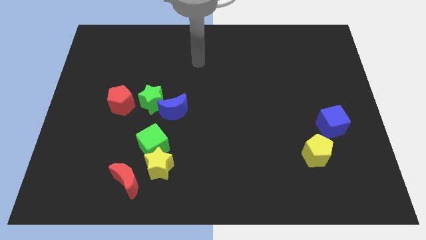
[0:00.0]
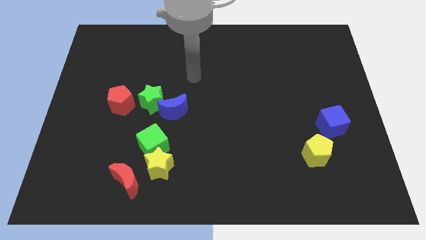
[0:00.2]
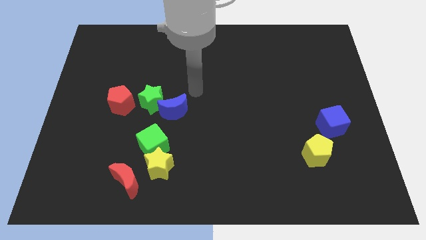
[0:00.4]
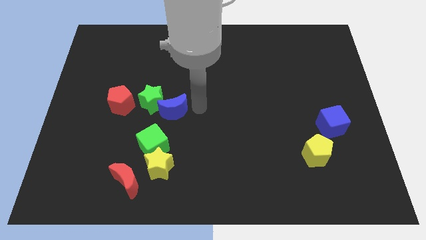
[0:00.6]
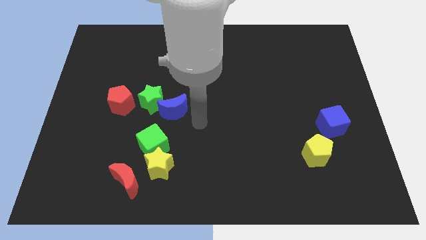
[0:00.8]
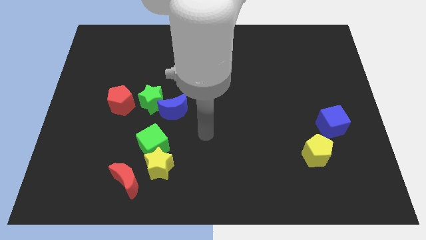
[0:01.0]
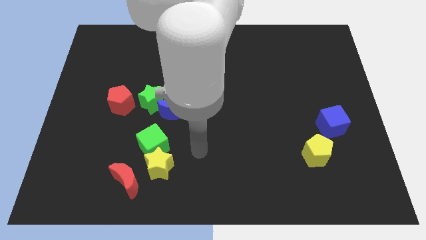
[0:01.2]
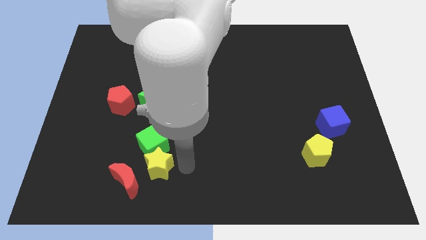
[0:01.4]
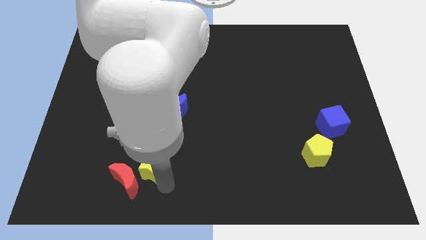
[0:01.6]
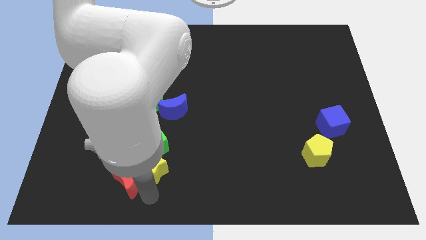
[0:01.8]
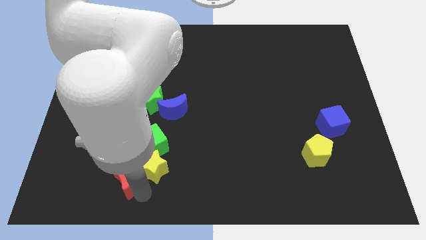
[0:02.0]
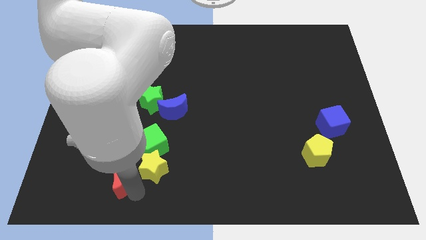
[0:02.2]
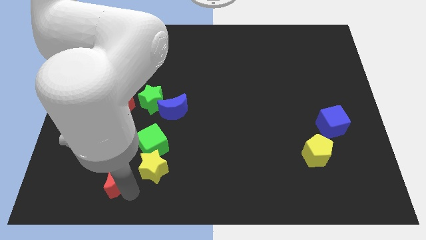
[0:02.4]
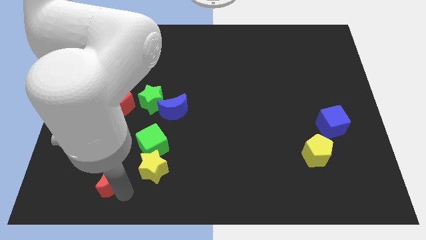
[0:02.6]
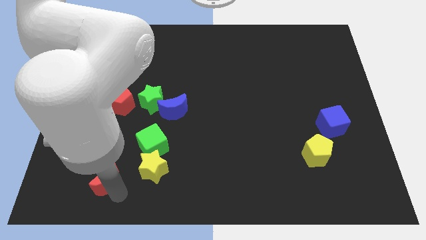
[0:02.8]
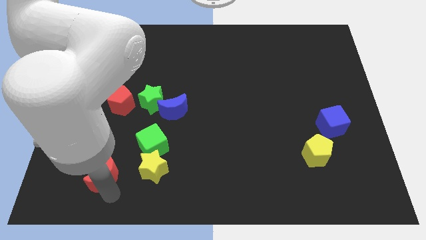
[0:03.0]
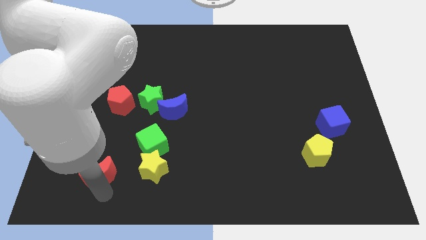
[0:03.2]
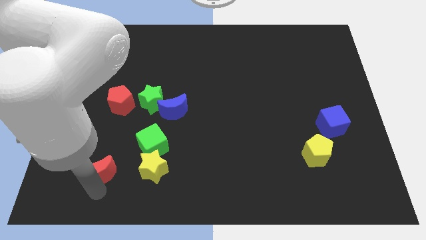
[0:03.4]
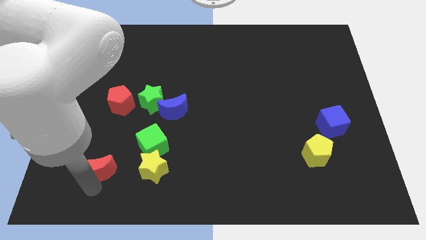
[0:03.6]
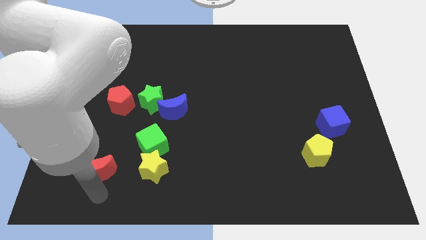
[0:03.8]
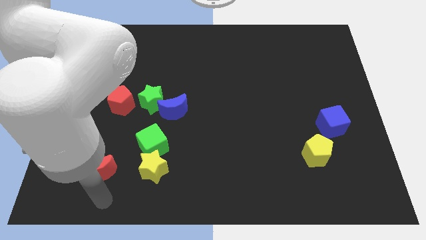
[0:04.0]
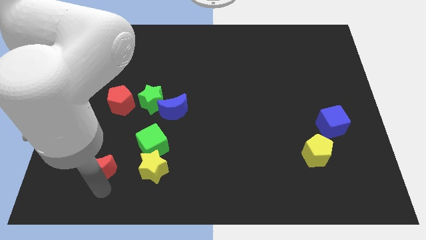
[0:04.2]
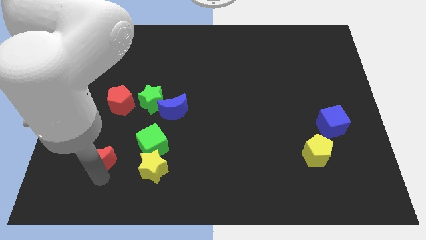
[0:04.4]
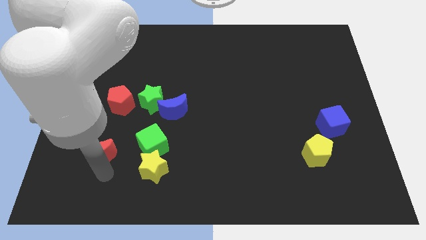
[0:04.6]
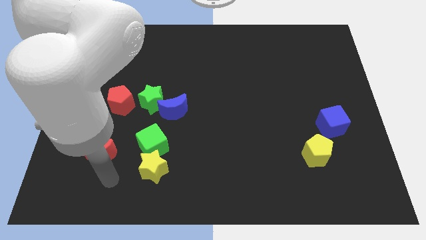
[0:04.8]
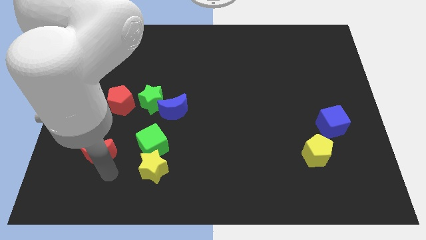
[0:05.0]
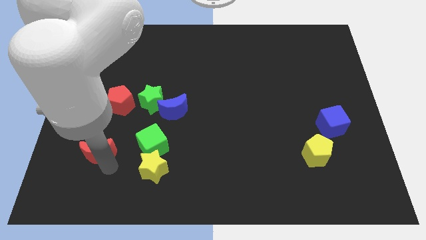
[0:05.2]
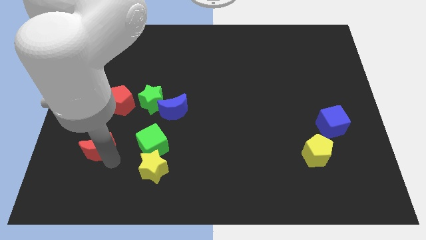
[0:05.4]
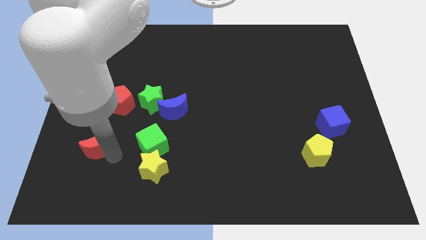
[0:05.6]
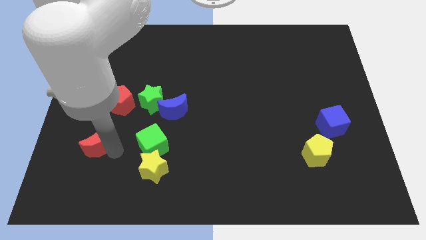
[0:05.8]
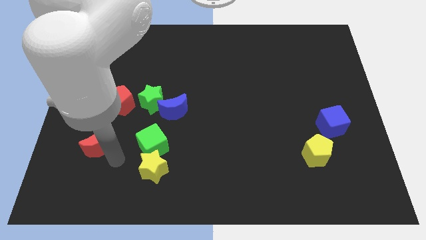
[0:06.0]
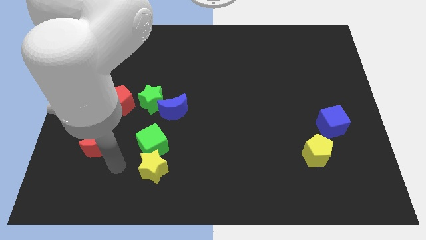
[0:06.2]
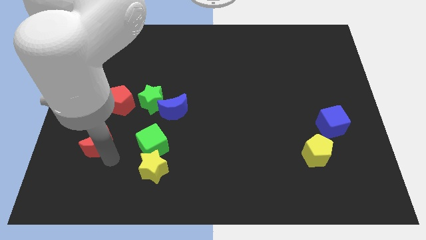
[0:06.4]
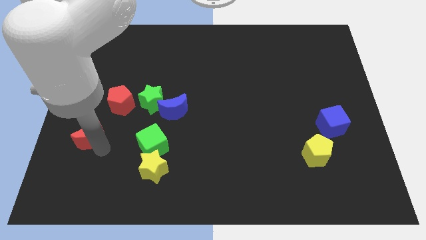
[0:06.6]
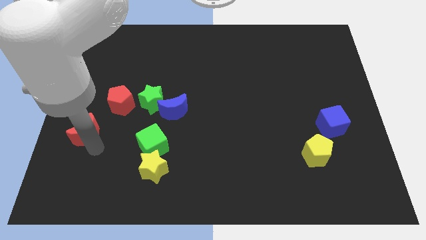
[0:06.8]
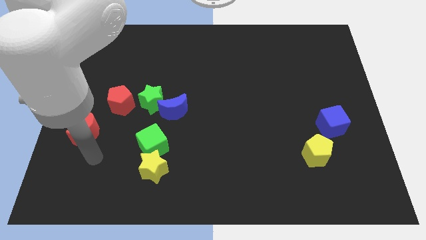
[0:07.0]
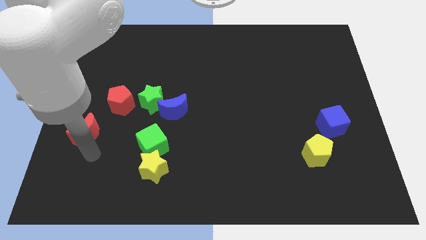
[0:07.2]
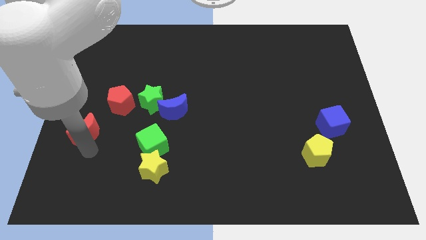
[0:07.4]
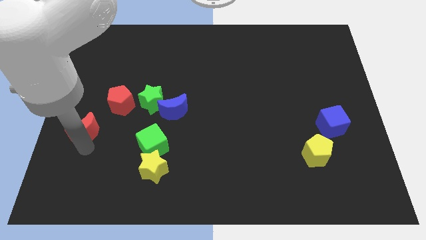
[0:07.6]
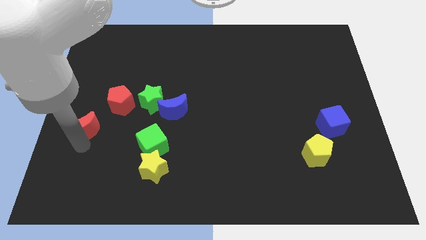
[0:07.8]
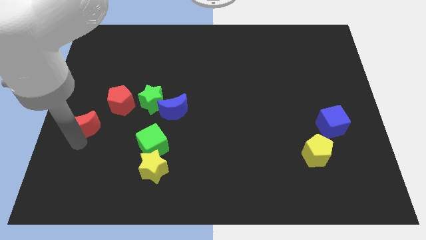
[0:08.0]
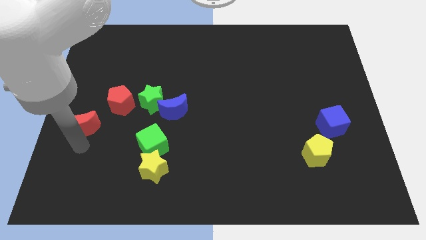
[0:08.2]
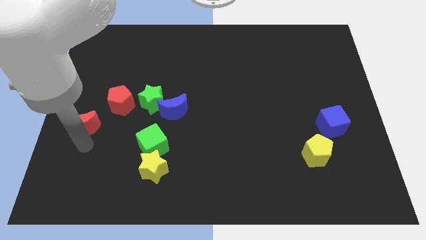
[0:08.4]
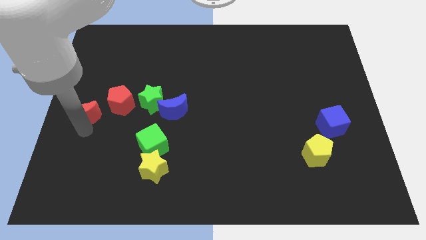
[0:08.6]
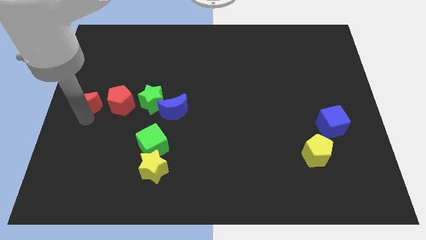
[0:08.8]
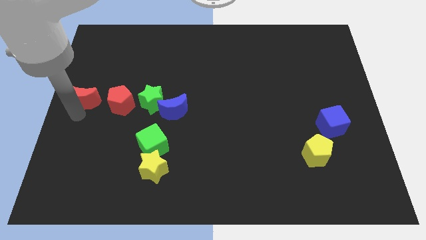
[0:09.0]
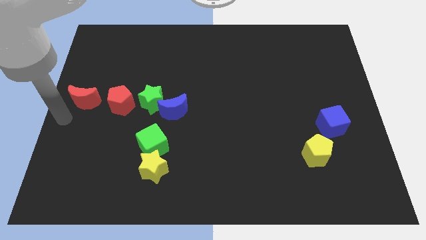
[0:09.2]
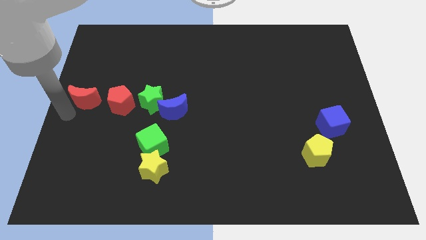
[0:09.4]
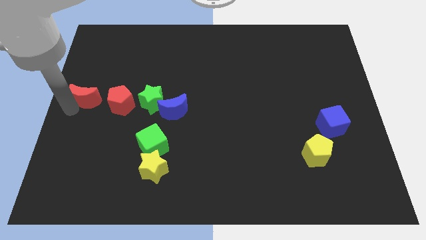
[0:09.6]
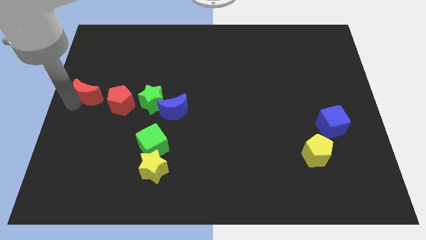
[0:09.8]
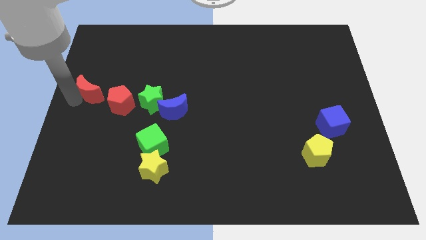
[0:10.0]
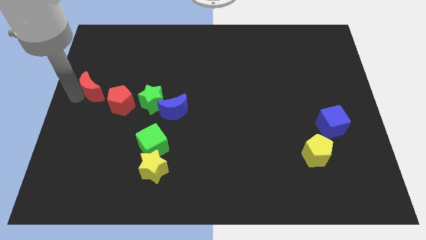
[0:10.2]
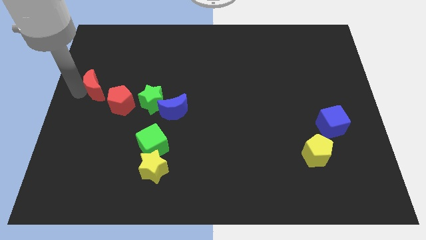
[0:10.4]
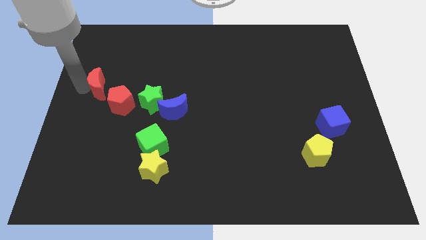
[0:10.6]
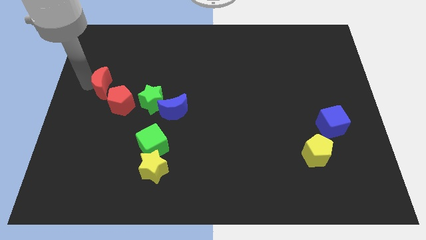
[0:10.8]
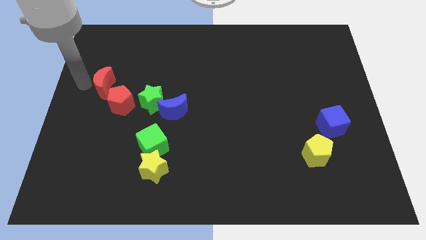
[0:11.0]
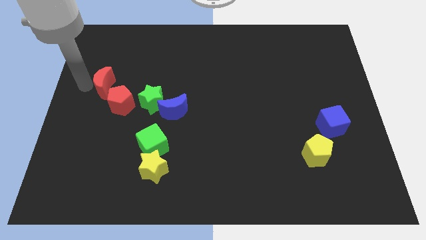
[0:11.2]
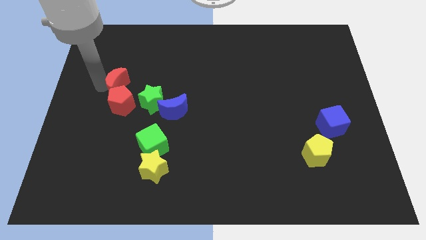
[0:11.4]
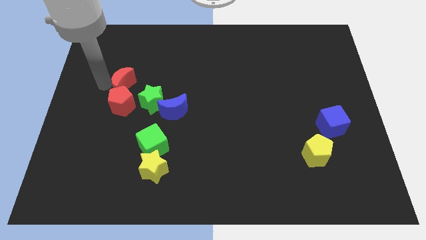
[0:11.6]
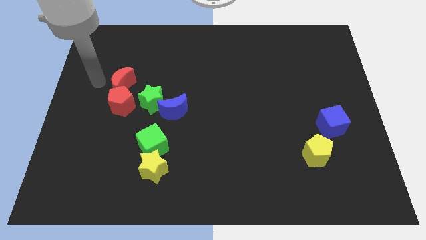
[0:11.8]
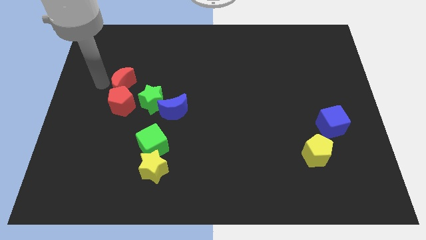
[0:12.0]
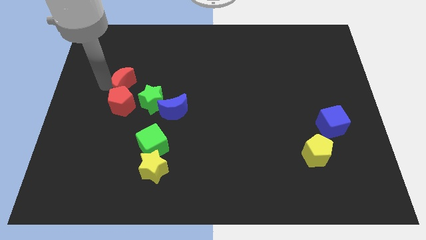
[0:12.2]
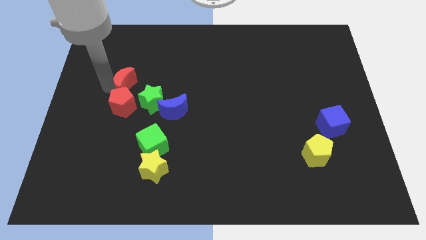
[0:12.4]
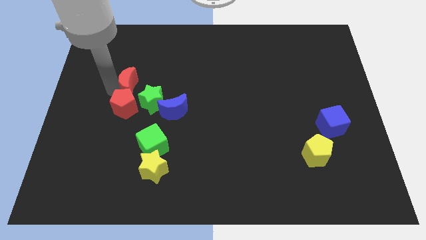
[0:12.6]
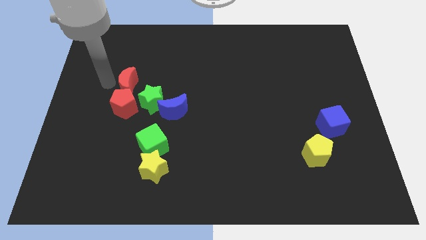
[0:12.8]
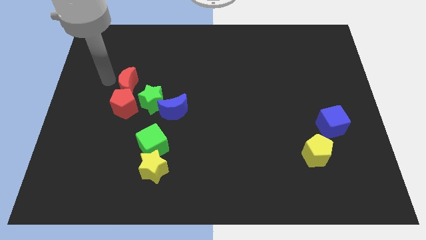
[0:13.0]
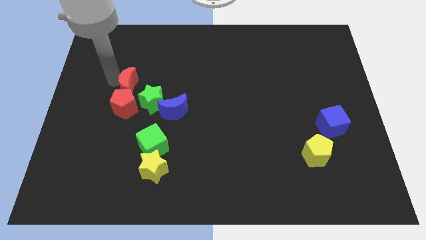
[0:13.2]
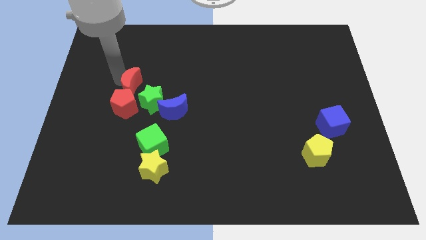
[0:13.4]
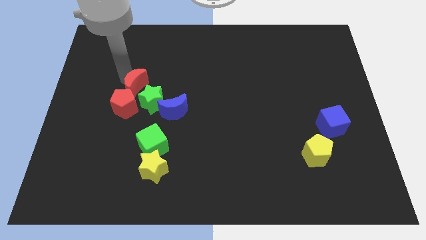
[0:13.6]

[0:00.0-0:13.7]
move the red moon diagonally up and to the left of the blue moon
